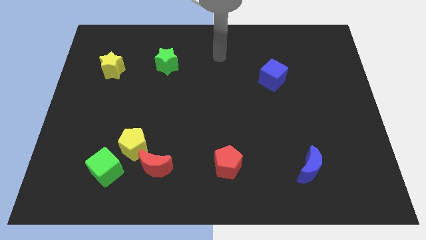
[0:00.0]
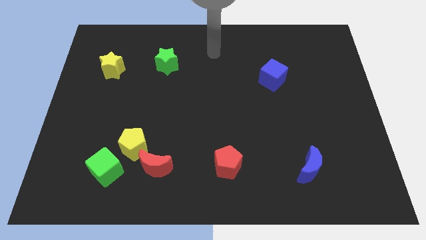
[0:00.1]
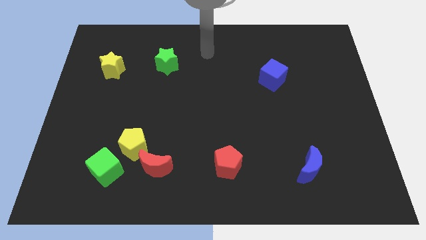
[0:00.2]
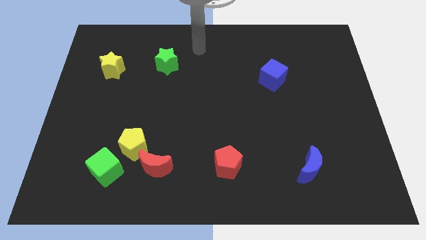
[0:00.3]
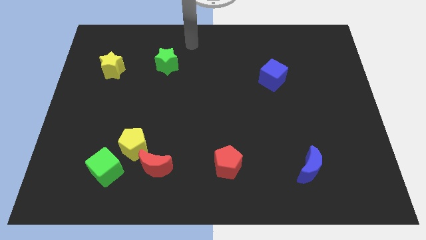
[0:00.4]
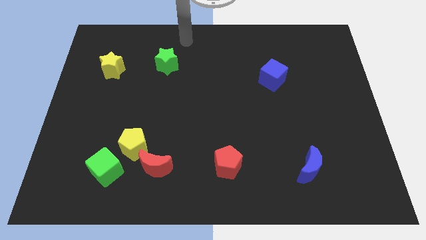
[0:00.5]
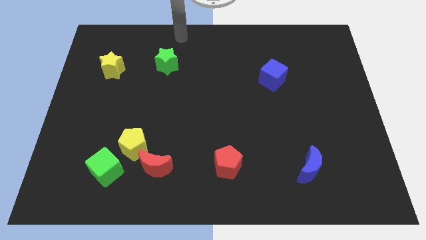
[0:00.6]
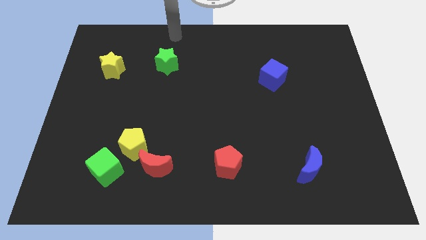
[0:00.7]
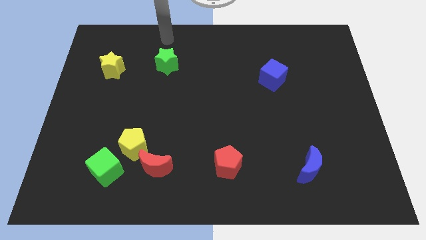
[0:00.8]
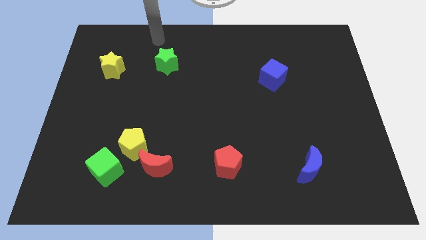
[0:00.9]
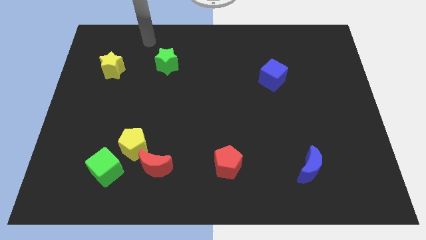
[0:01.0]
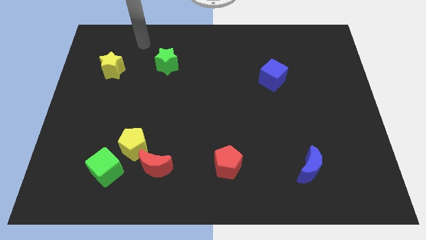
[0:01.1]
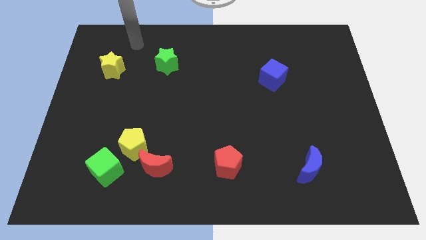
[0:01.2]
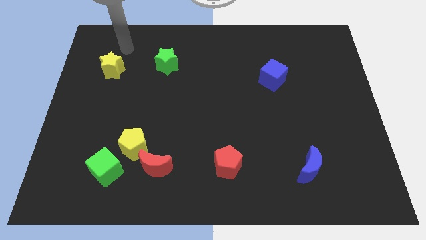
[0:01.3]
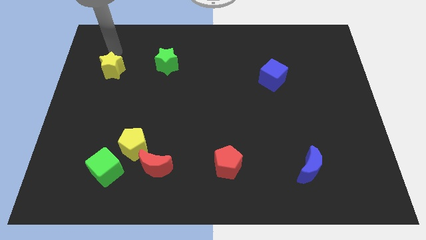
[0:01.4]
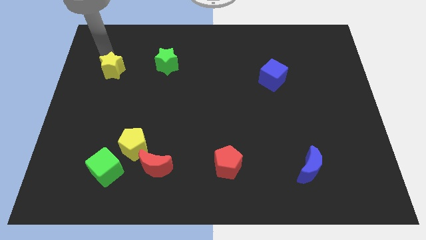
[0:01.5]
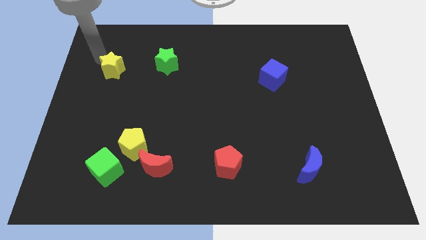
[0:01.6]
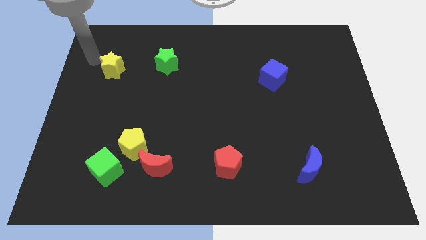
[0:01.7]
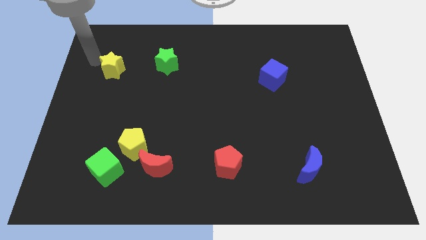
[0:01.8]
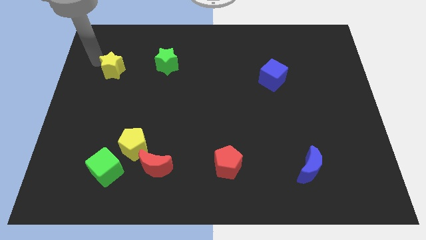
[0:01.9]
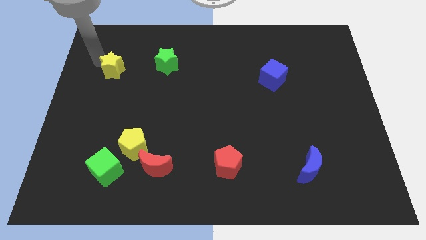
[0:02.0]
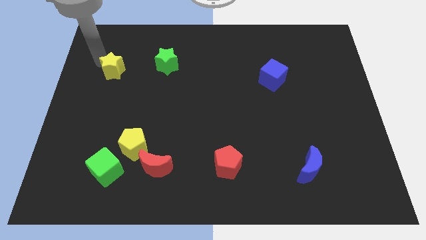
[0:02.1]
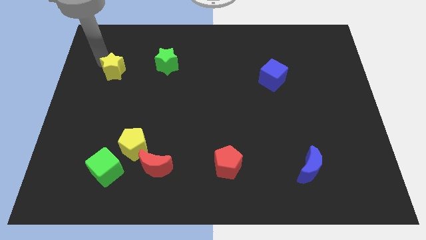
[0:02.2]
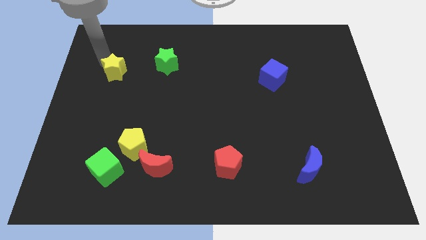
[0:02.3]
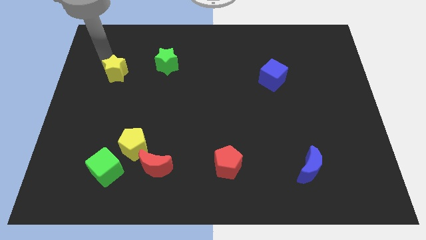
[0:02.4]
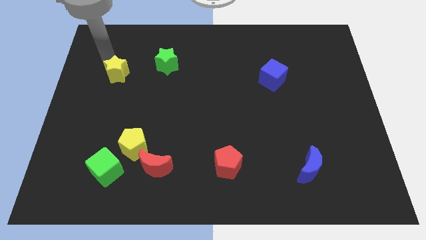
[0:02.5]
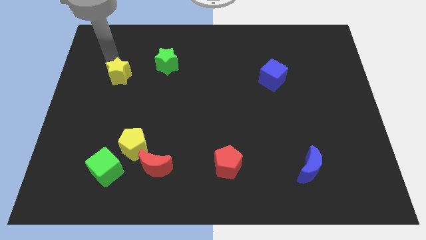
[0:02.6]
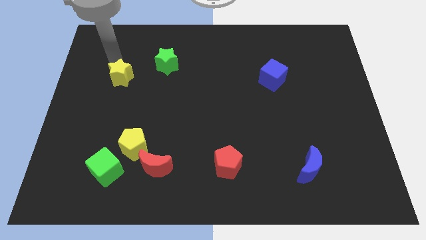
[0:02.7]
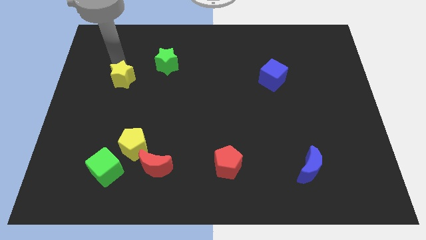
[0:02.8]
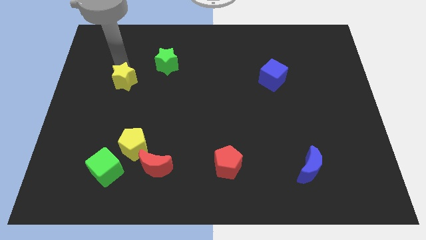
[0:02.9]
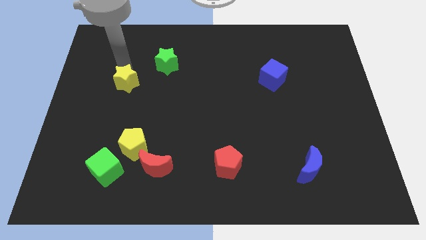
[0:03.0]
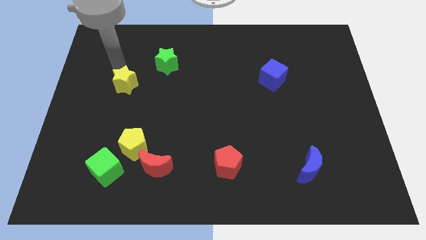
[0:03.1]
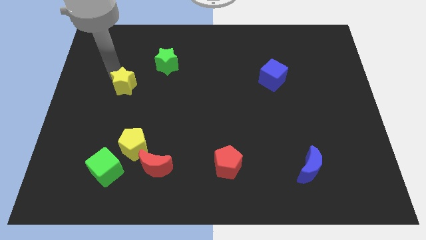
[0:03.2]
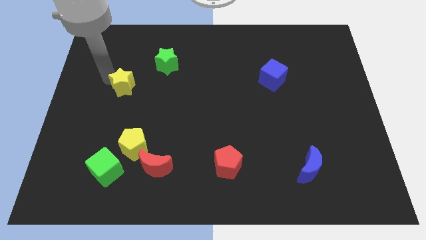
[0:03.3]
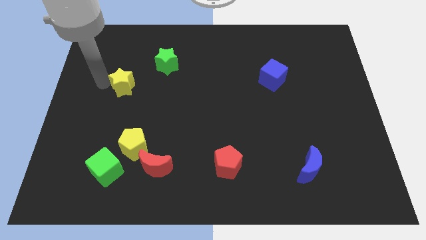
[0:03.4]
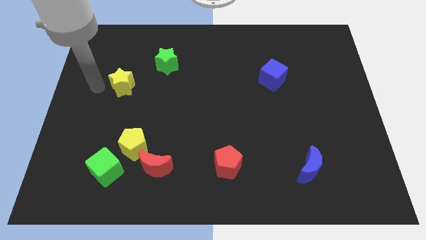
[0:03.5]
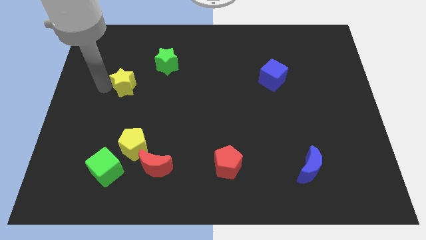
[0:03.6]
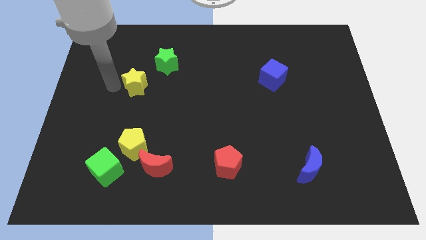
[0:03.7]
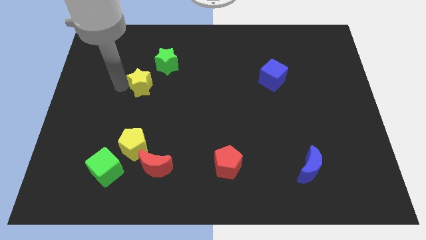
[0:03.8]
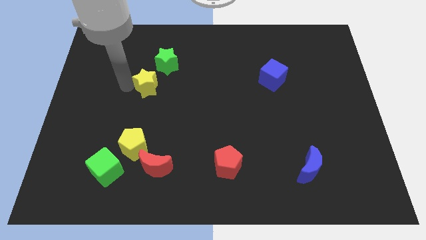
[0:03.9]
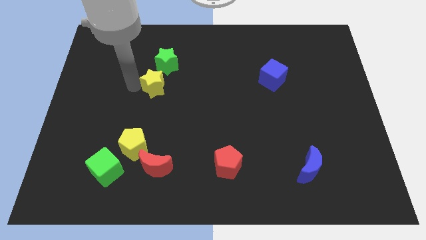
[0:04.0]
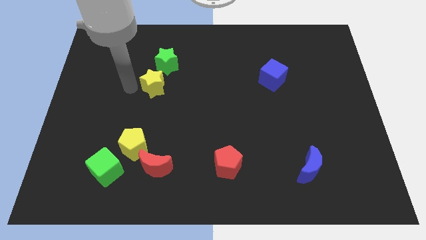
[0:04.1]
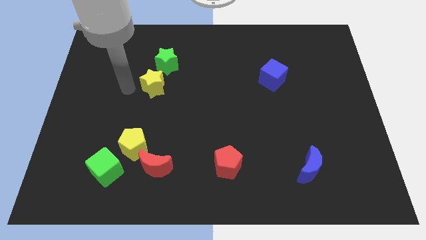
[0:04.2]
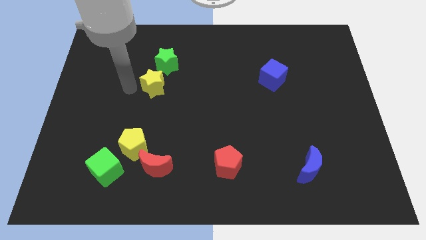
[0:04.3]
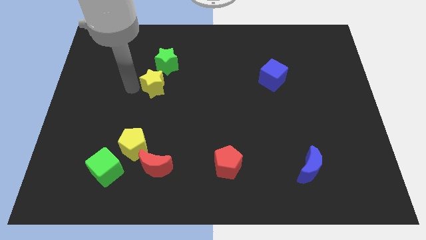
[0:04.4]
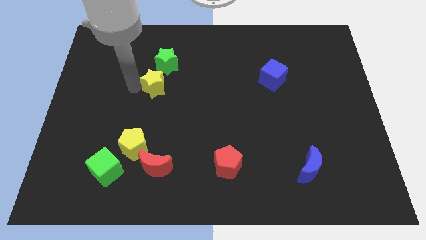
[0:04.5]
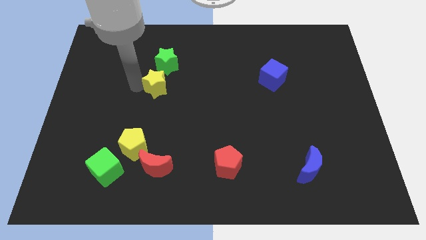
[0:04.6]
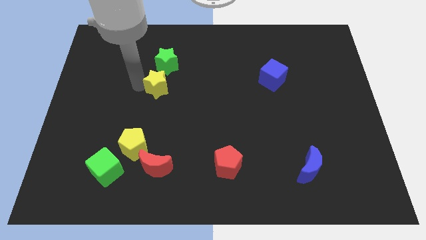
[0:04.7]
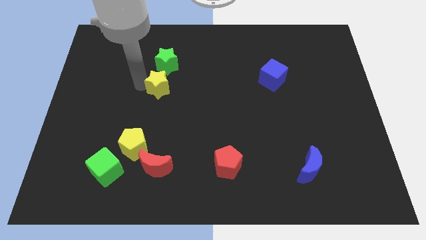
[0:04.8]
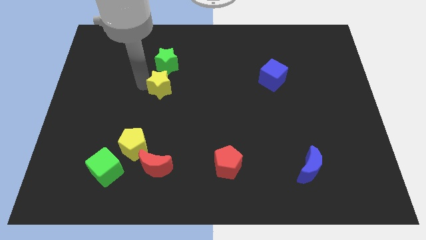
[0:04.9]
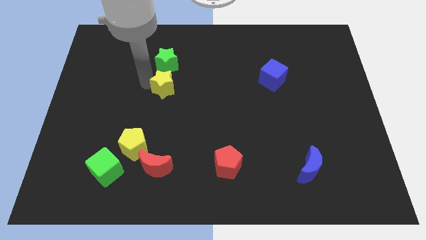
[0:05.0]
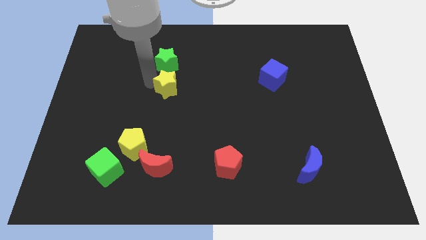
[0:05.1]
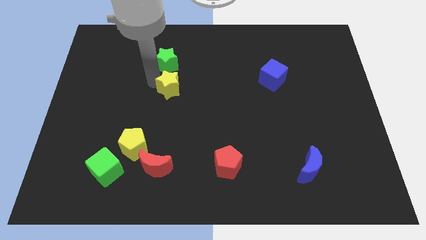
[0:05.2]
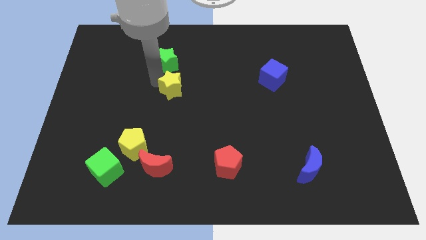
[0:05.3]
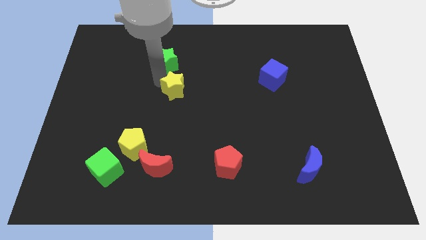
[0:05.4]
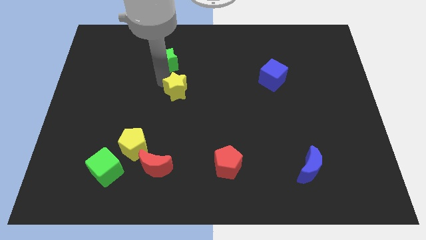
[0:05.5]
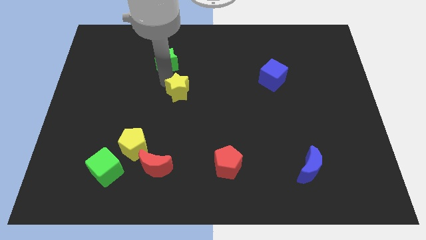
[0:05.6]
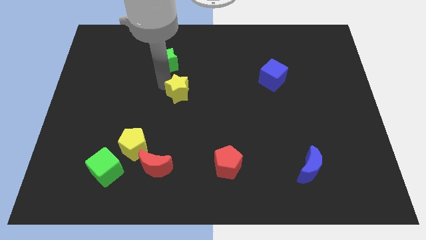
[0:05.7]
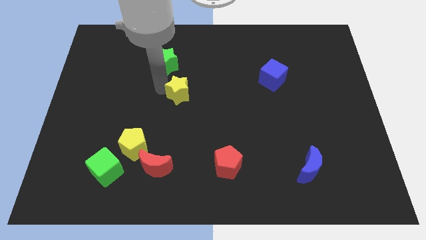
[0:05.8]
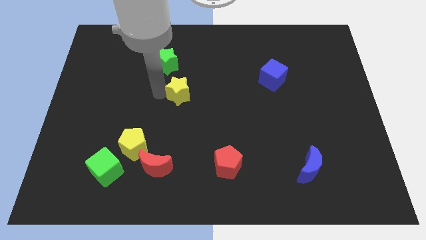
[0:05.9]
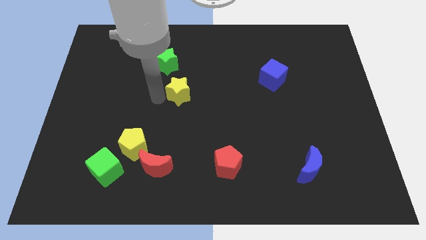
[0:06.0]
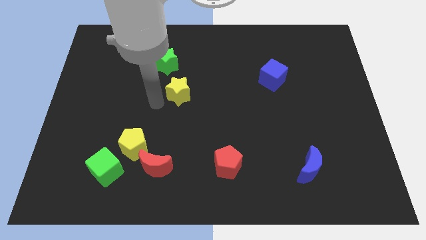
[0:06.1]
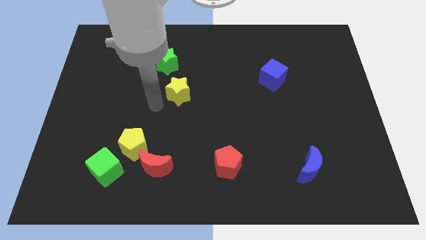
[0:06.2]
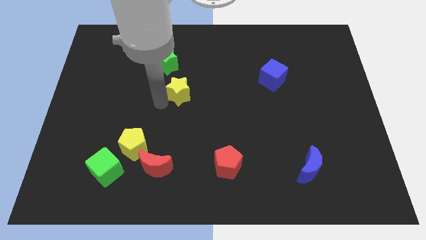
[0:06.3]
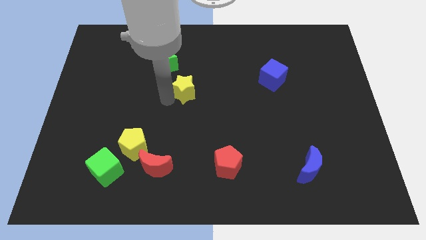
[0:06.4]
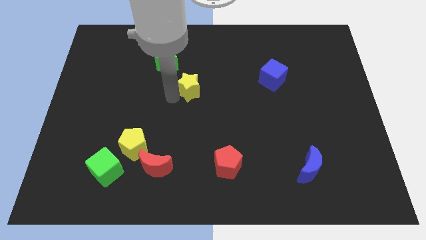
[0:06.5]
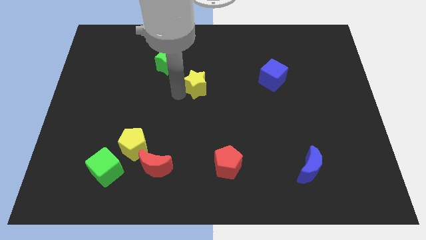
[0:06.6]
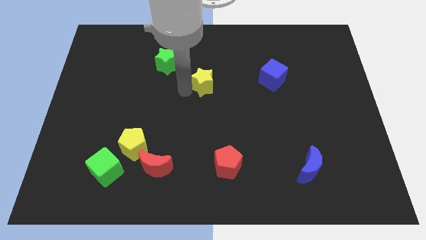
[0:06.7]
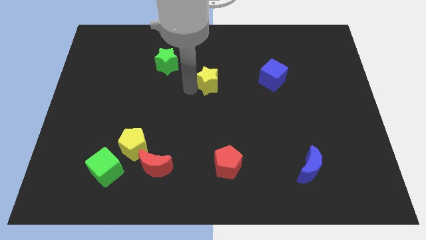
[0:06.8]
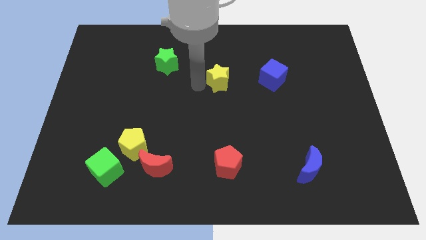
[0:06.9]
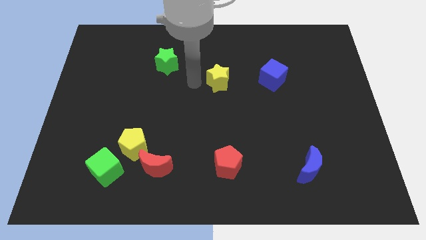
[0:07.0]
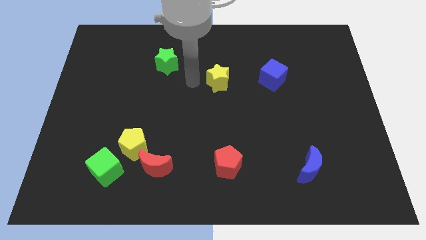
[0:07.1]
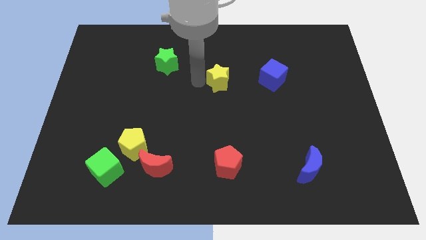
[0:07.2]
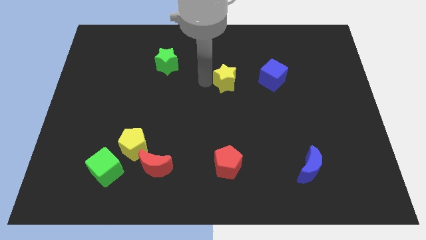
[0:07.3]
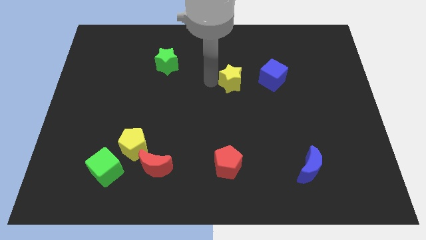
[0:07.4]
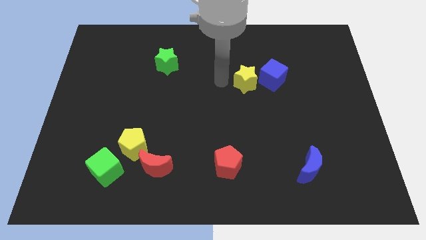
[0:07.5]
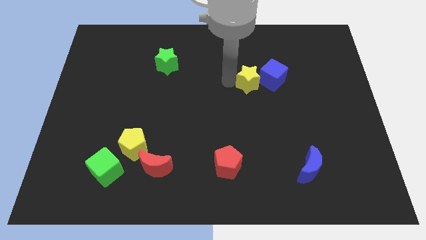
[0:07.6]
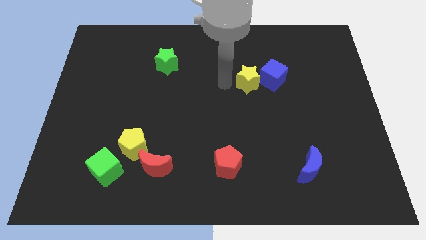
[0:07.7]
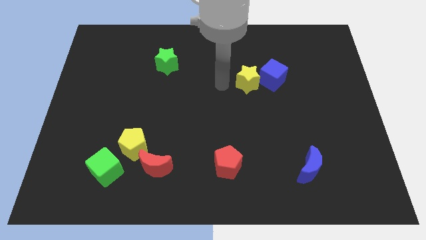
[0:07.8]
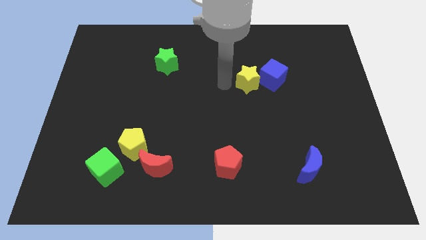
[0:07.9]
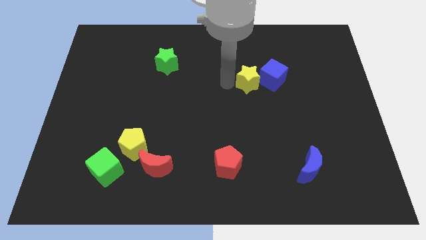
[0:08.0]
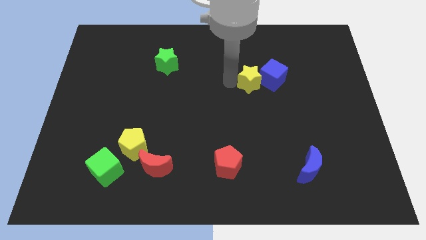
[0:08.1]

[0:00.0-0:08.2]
put the yellow star towards the blue cube
